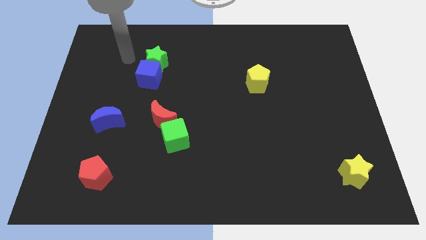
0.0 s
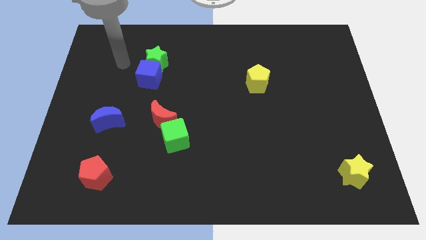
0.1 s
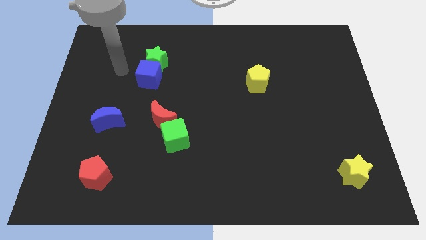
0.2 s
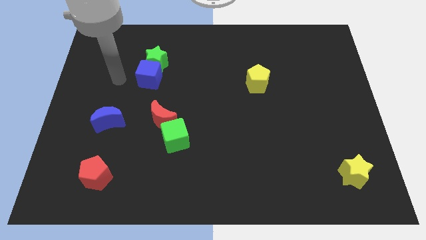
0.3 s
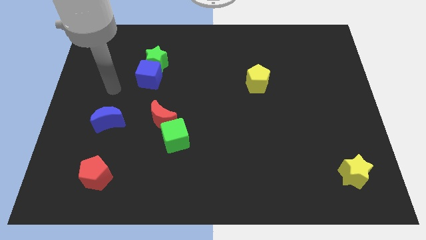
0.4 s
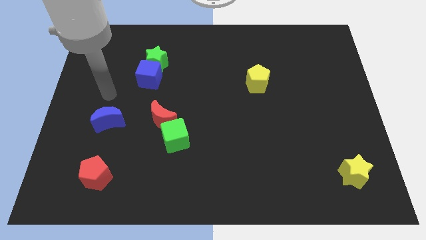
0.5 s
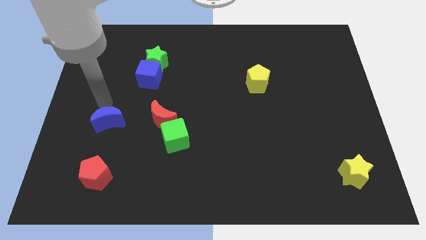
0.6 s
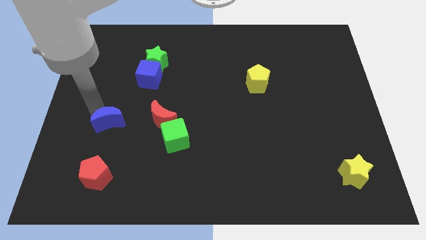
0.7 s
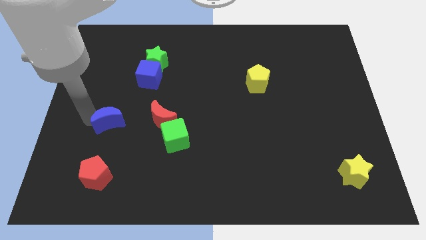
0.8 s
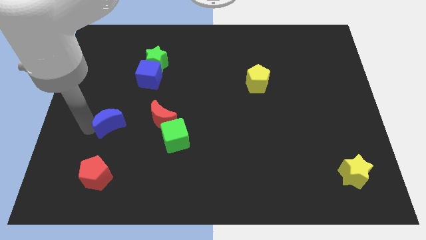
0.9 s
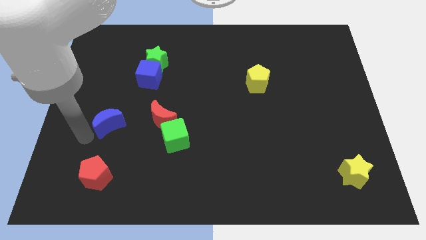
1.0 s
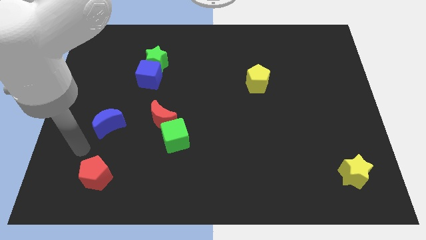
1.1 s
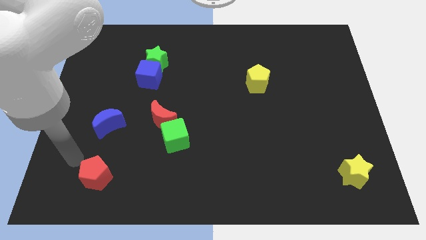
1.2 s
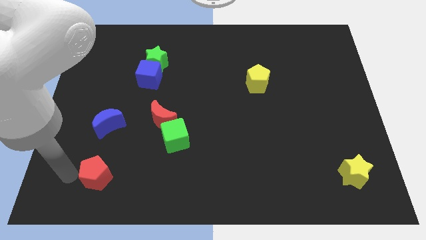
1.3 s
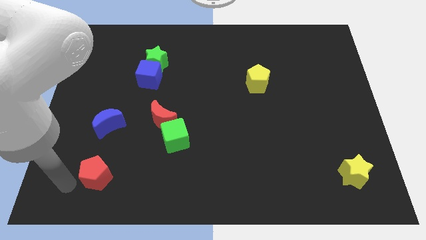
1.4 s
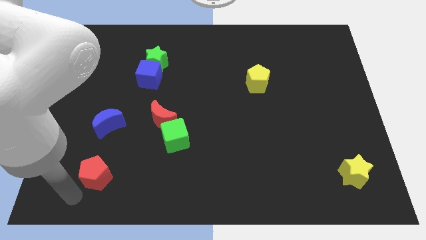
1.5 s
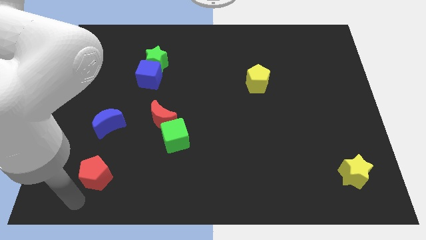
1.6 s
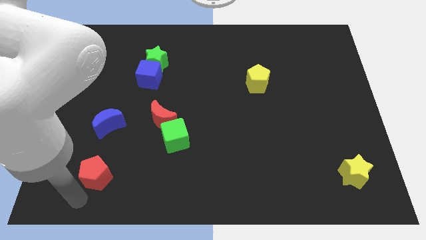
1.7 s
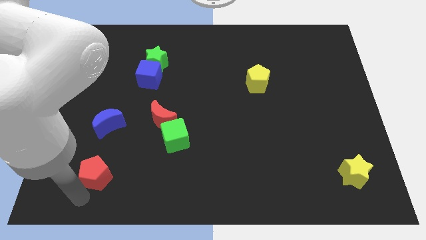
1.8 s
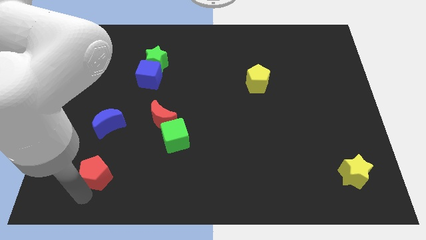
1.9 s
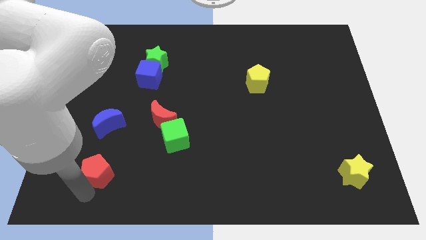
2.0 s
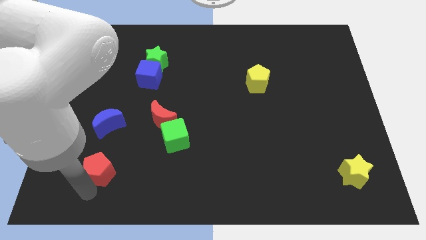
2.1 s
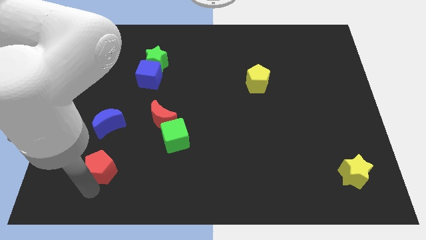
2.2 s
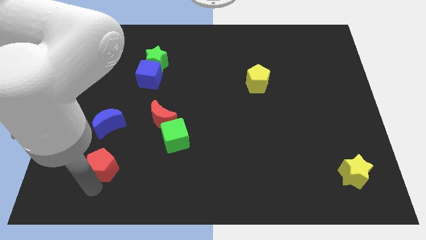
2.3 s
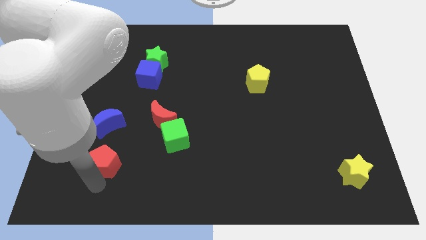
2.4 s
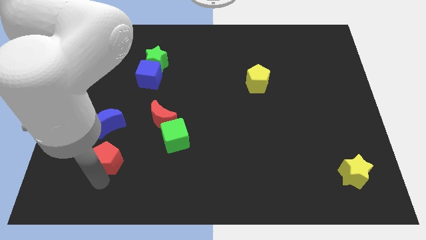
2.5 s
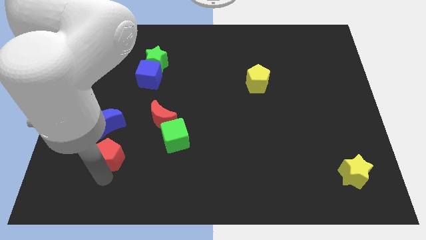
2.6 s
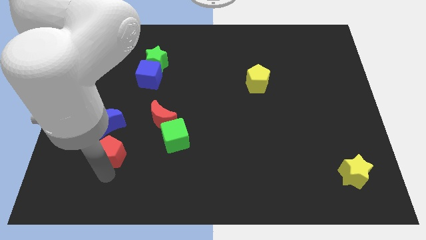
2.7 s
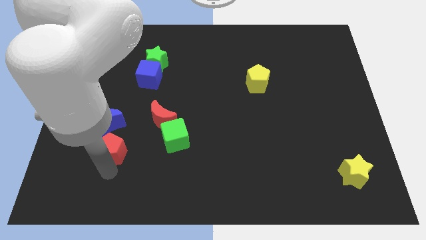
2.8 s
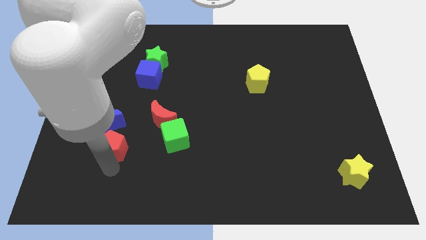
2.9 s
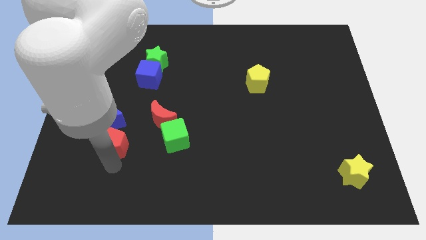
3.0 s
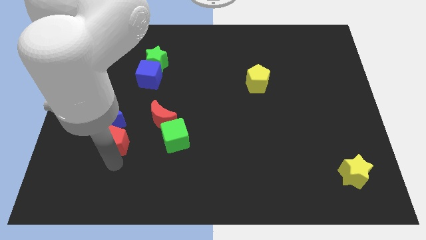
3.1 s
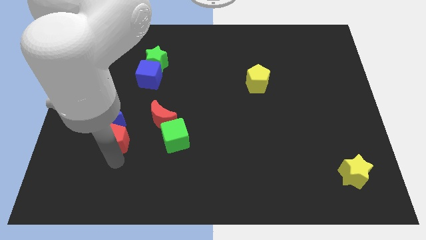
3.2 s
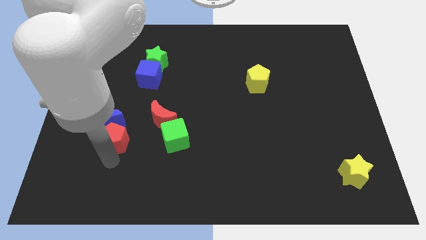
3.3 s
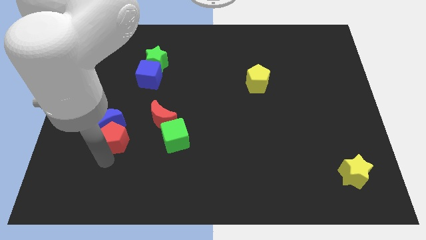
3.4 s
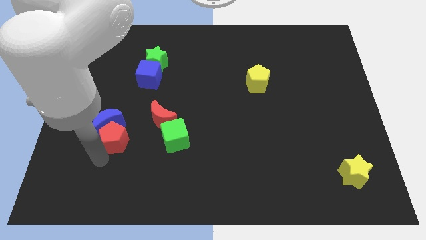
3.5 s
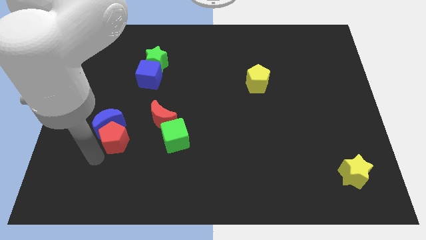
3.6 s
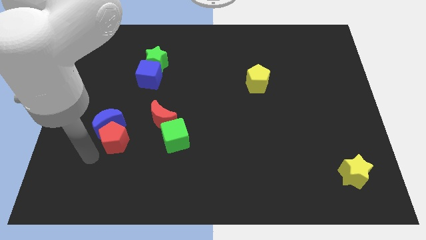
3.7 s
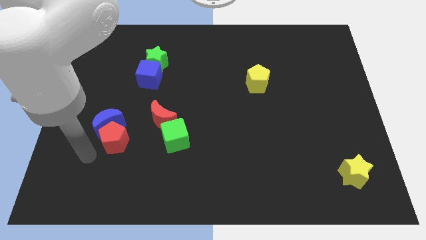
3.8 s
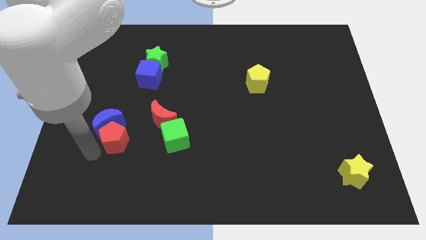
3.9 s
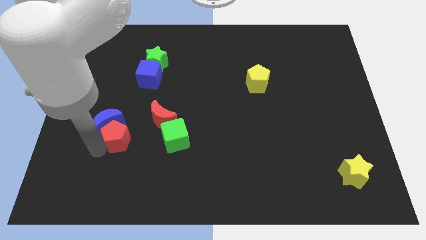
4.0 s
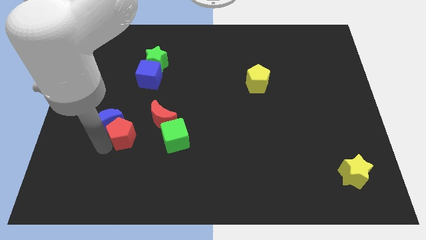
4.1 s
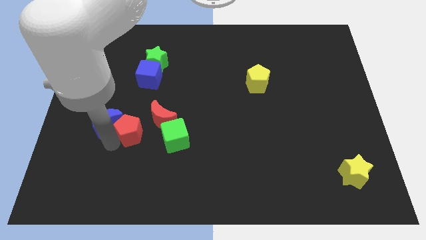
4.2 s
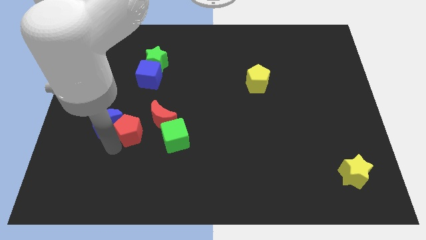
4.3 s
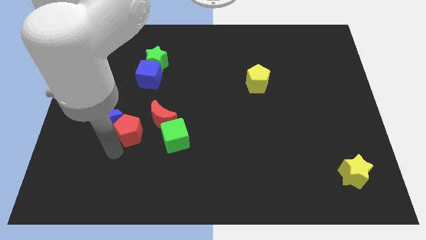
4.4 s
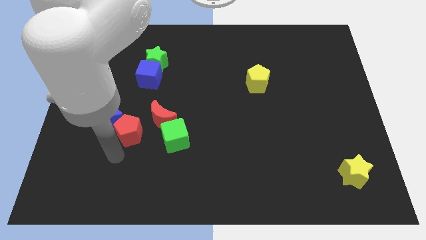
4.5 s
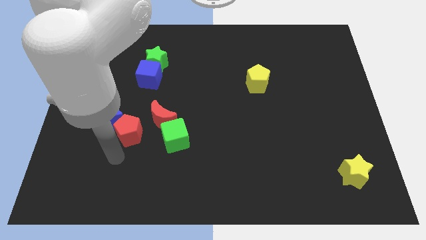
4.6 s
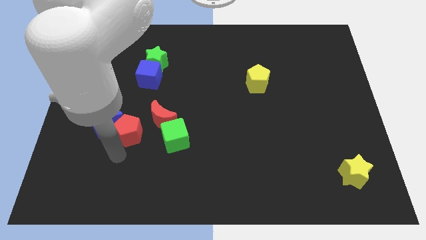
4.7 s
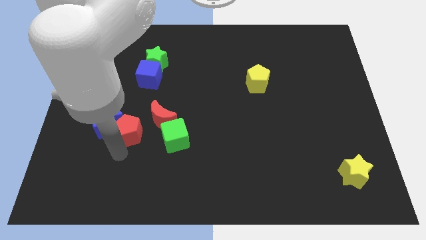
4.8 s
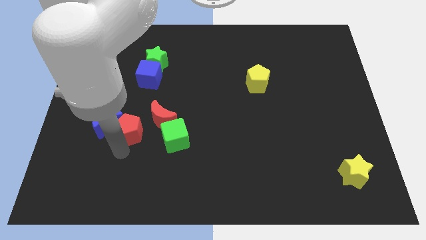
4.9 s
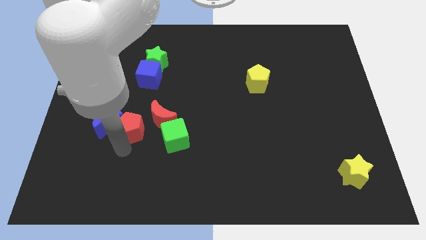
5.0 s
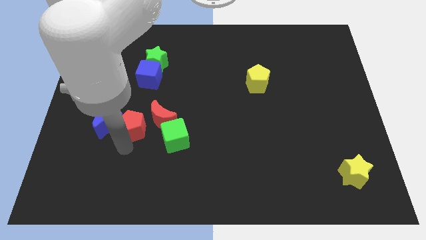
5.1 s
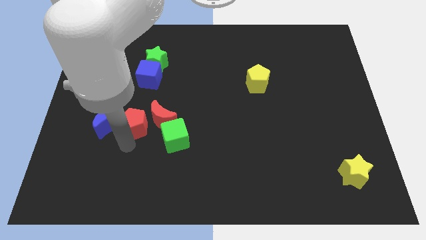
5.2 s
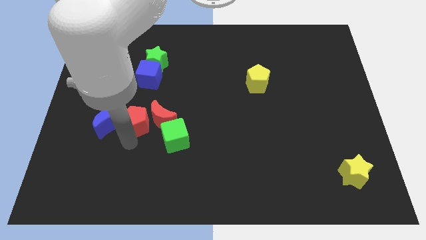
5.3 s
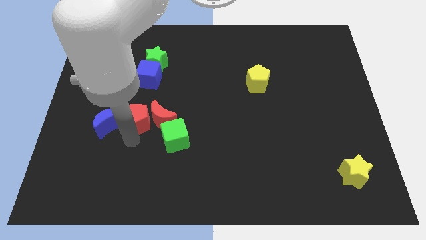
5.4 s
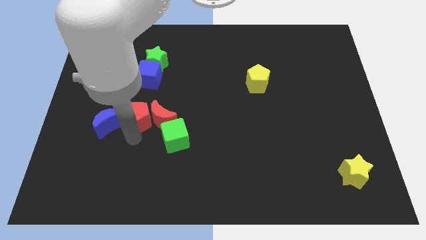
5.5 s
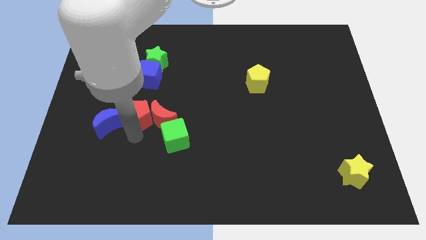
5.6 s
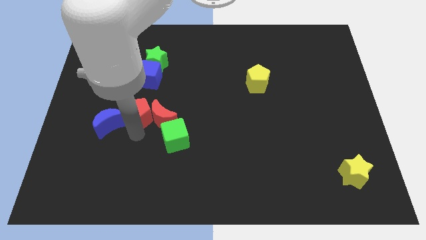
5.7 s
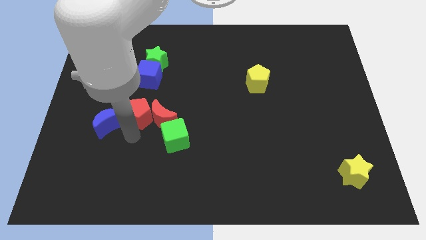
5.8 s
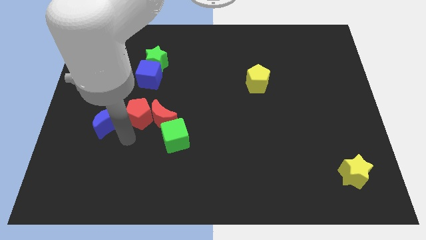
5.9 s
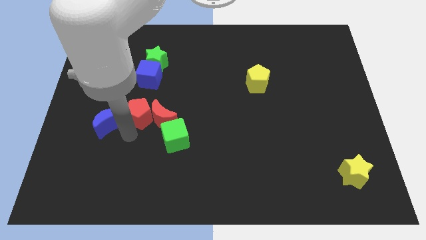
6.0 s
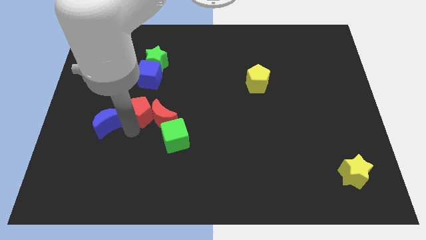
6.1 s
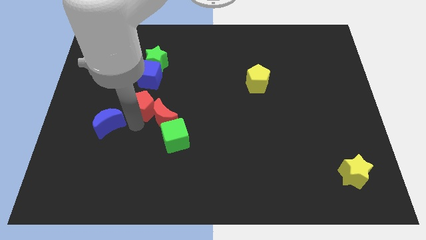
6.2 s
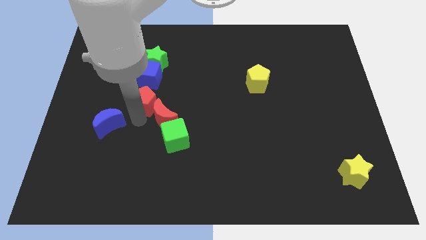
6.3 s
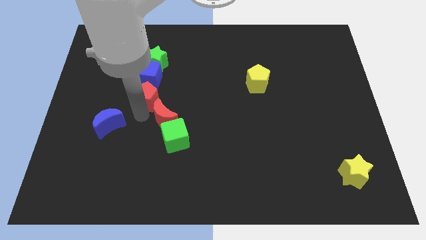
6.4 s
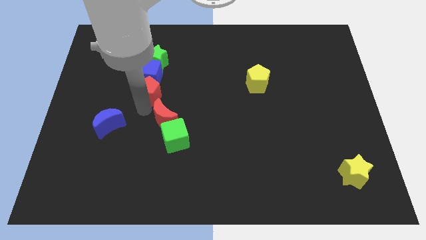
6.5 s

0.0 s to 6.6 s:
put the red pentagon towards the blue cube
